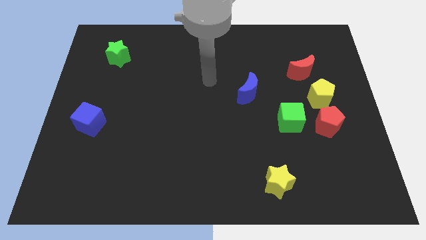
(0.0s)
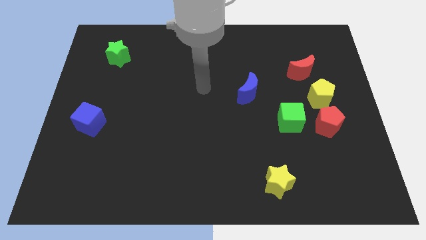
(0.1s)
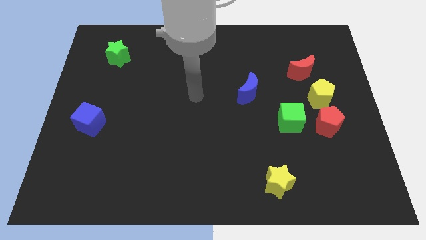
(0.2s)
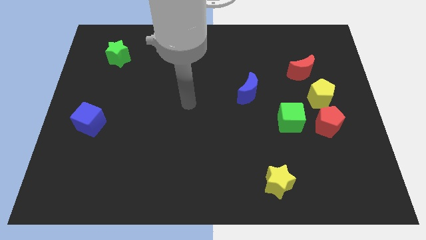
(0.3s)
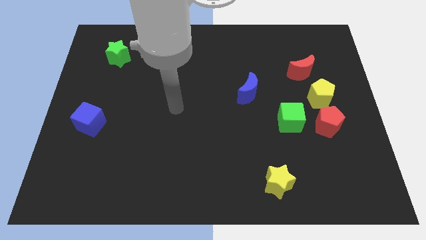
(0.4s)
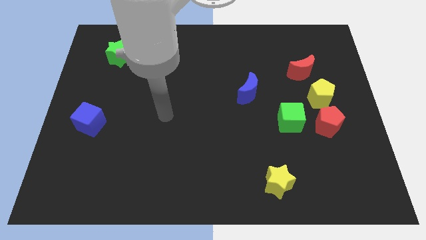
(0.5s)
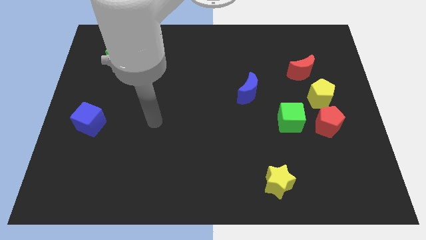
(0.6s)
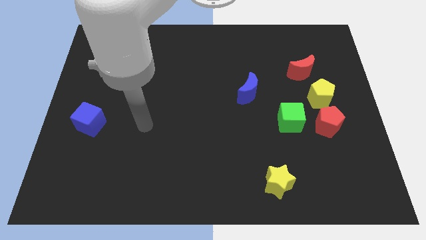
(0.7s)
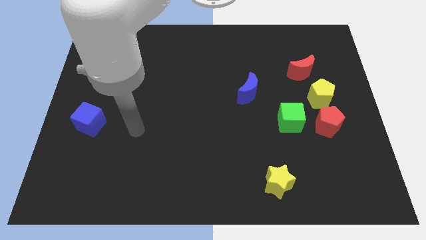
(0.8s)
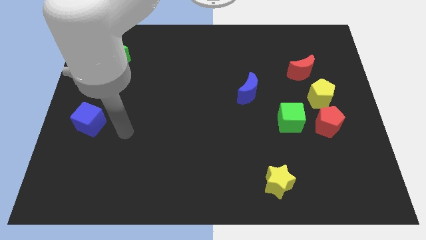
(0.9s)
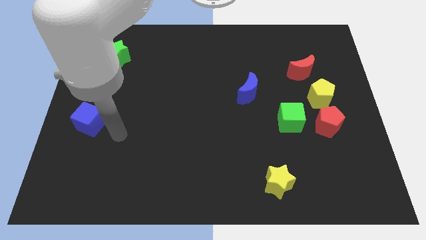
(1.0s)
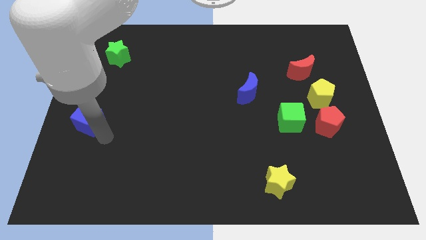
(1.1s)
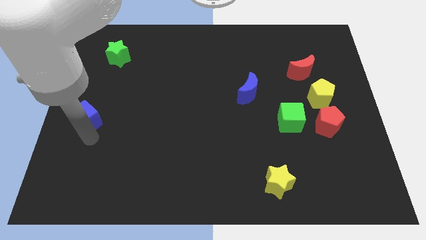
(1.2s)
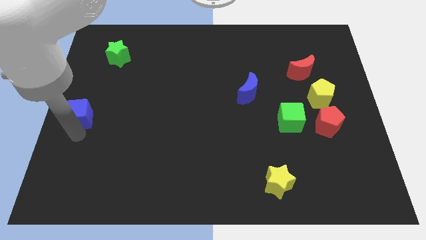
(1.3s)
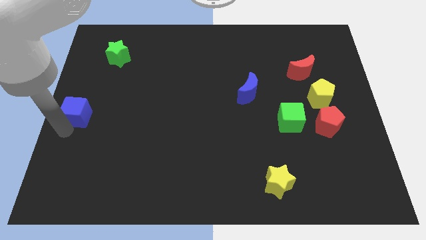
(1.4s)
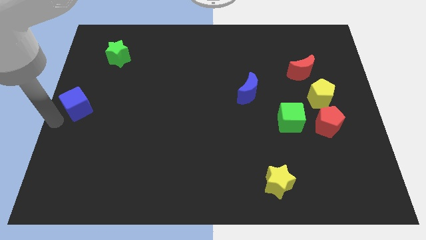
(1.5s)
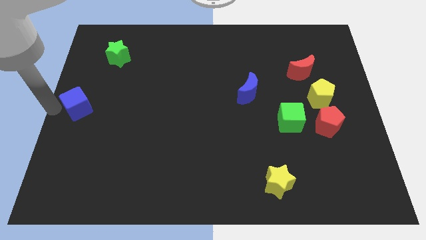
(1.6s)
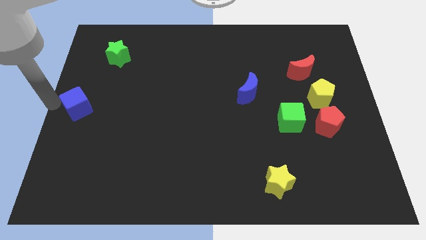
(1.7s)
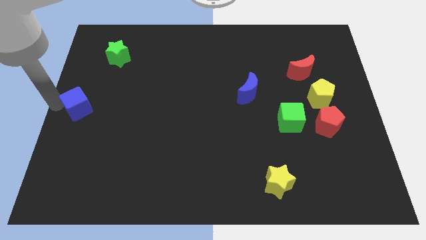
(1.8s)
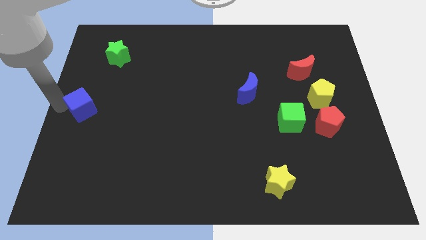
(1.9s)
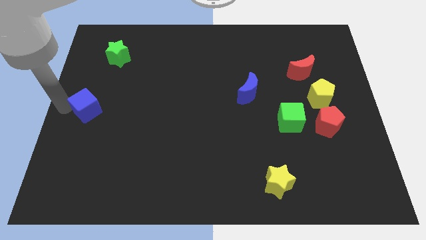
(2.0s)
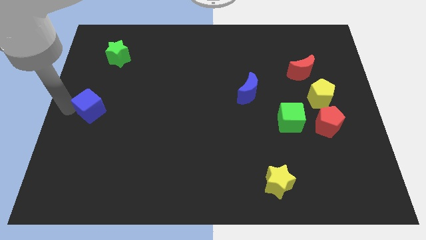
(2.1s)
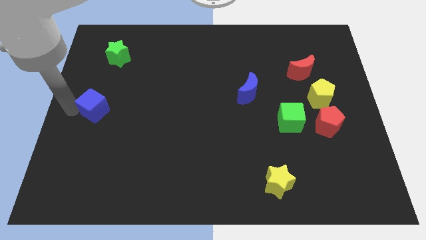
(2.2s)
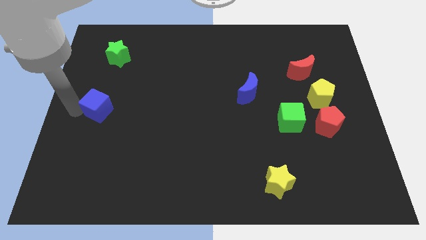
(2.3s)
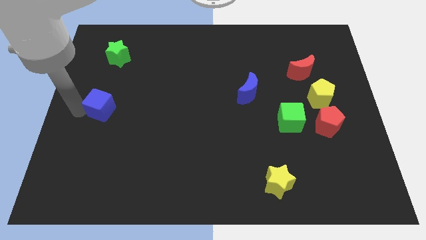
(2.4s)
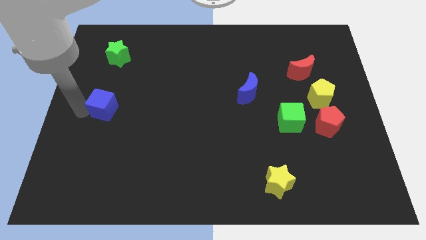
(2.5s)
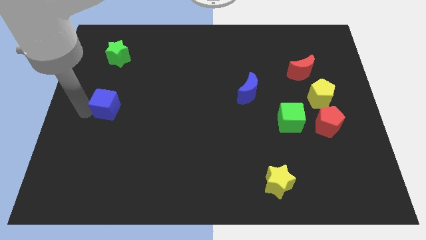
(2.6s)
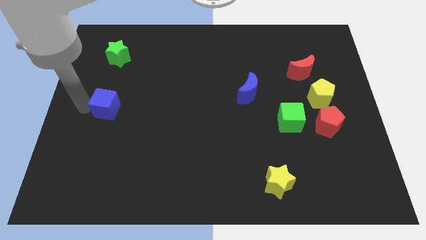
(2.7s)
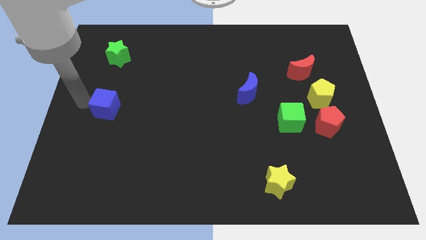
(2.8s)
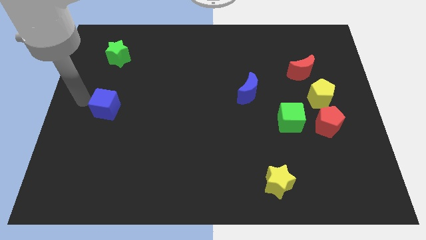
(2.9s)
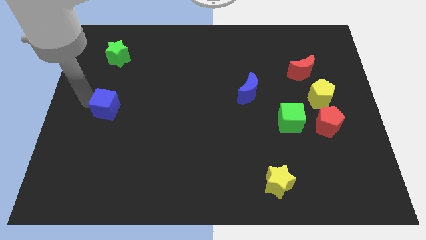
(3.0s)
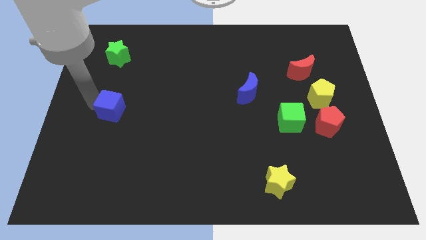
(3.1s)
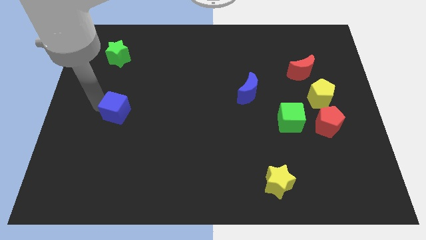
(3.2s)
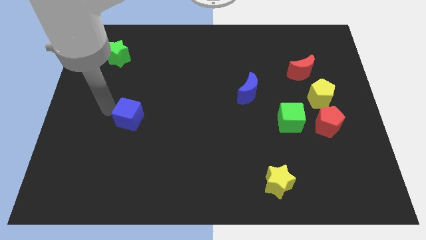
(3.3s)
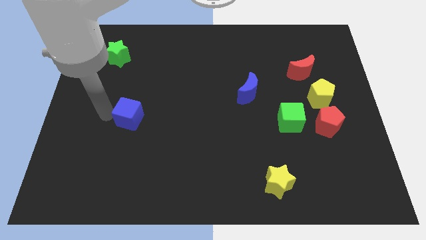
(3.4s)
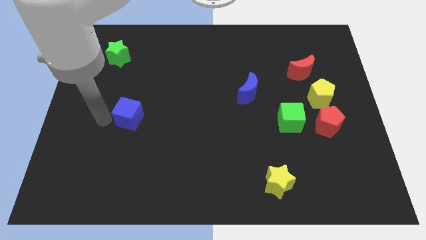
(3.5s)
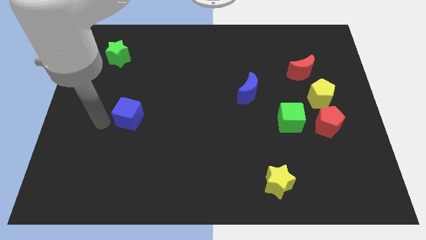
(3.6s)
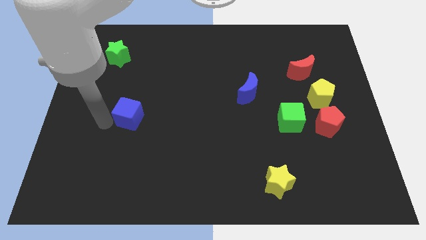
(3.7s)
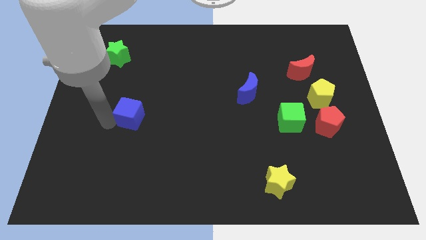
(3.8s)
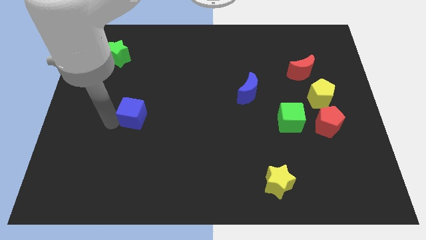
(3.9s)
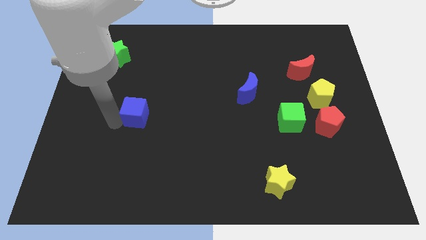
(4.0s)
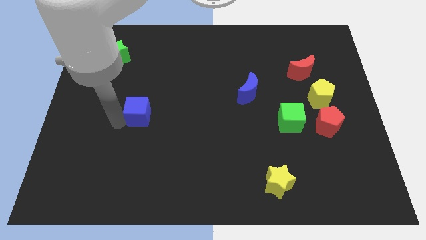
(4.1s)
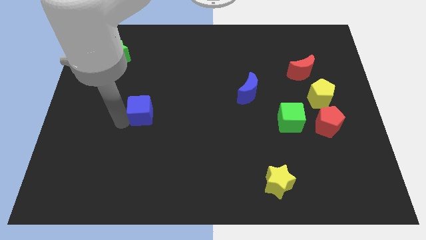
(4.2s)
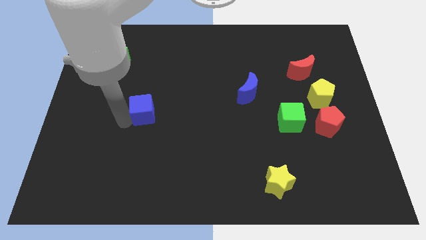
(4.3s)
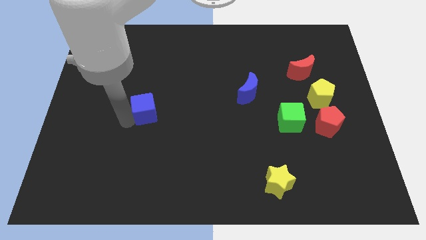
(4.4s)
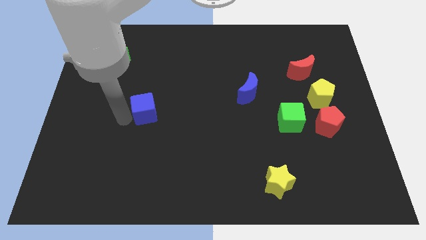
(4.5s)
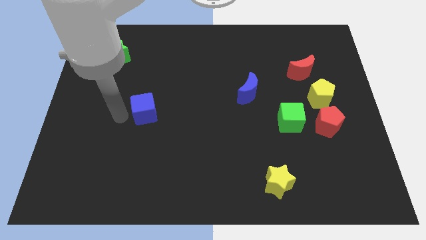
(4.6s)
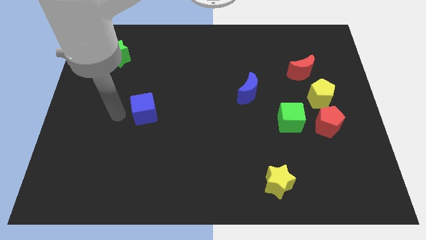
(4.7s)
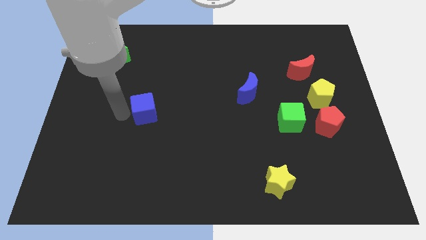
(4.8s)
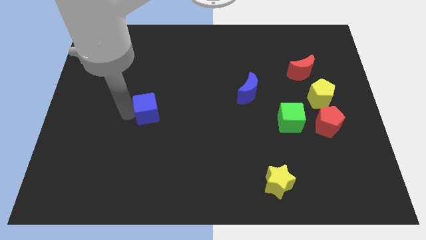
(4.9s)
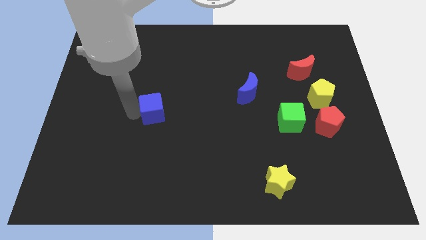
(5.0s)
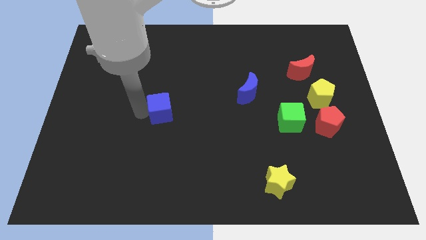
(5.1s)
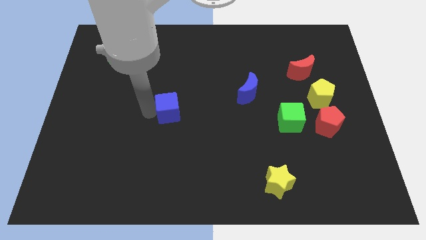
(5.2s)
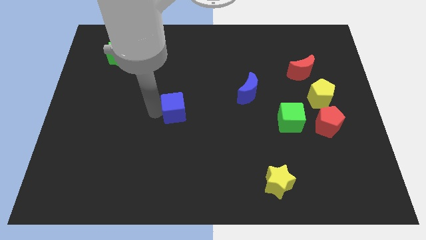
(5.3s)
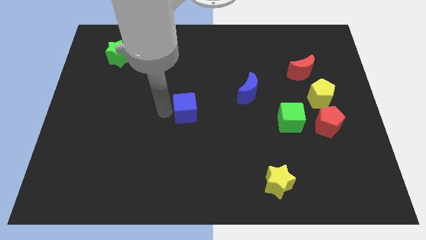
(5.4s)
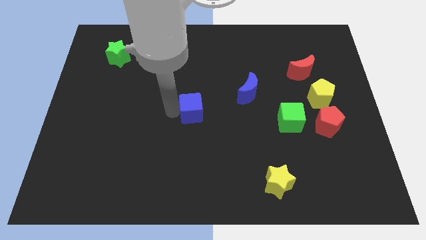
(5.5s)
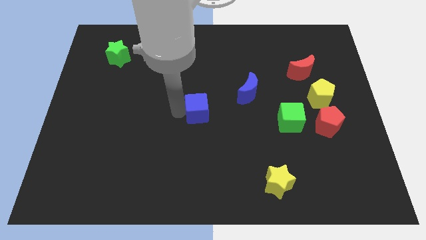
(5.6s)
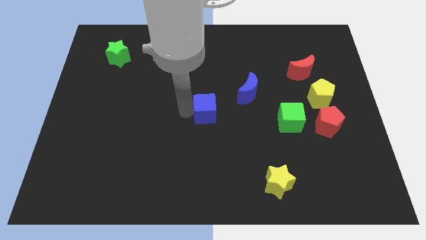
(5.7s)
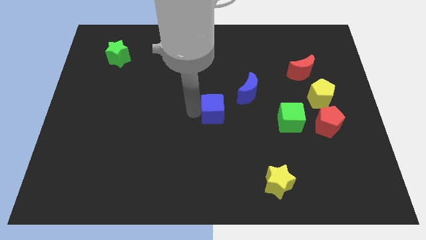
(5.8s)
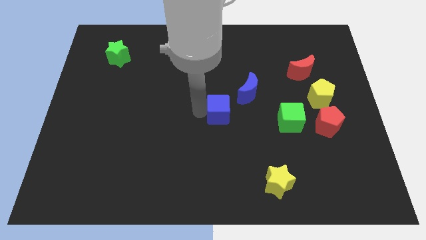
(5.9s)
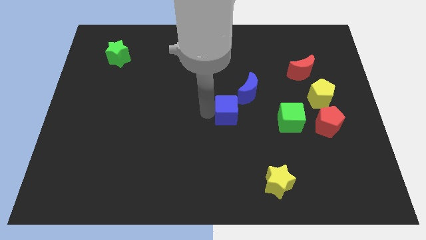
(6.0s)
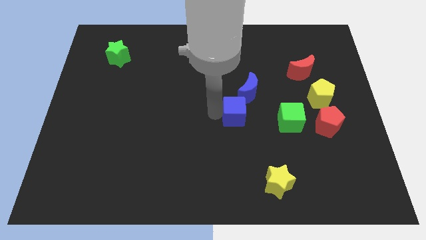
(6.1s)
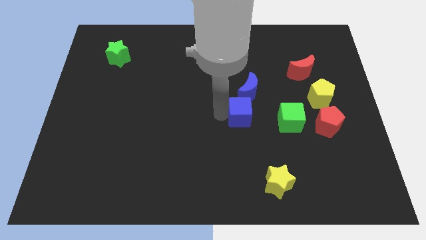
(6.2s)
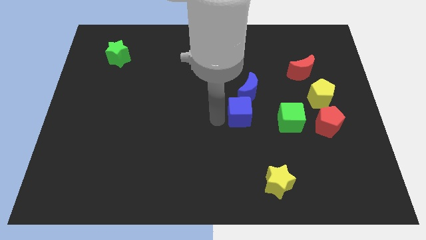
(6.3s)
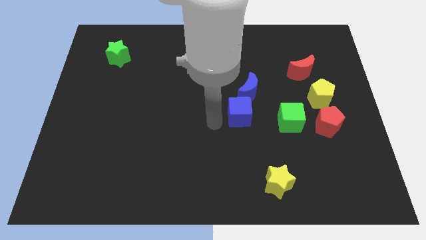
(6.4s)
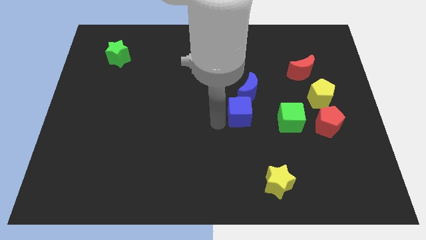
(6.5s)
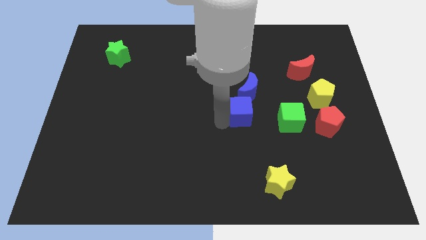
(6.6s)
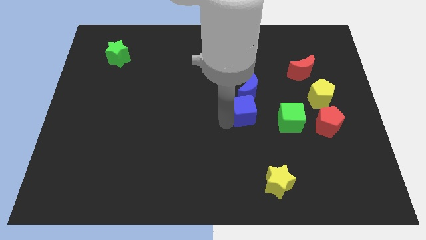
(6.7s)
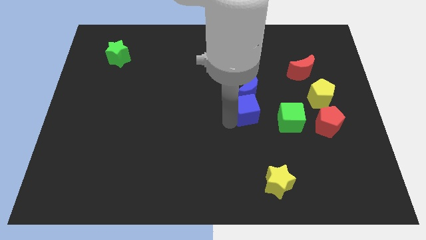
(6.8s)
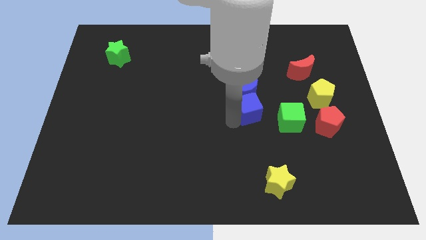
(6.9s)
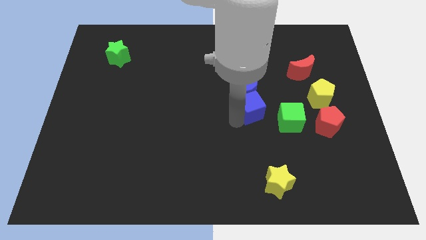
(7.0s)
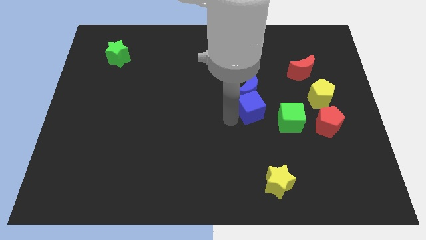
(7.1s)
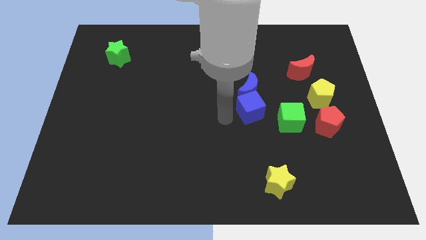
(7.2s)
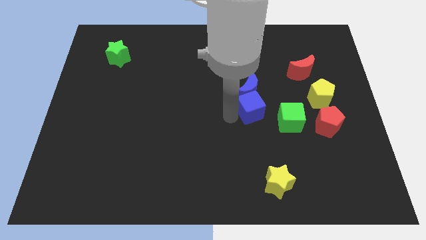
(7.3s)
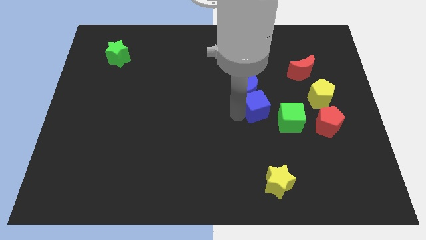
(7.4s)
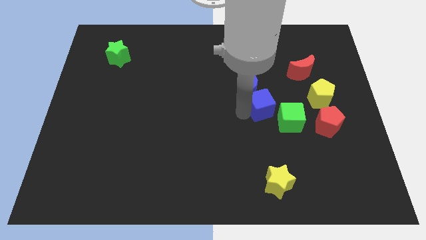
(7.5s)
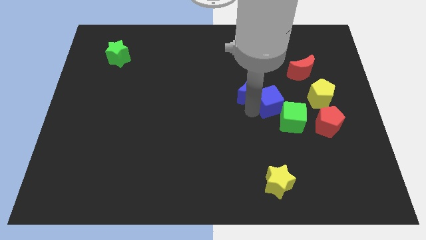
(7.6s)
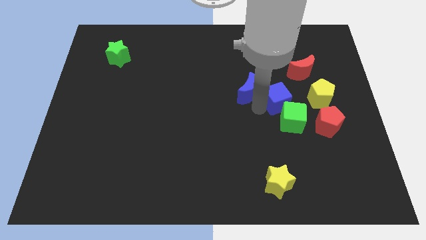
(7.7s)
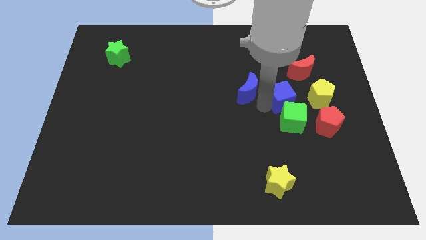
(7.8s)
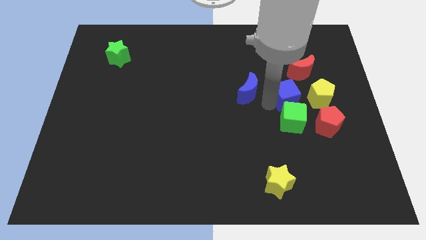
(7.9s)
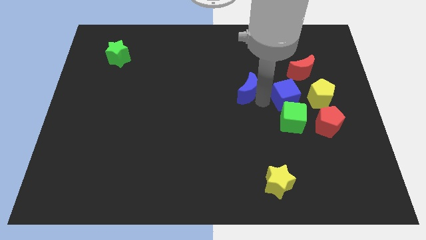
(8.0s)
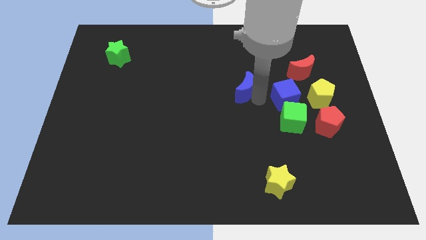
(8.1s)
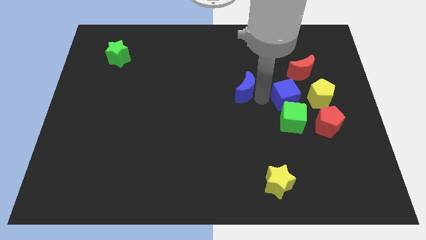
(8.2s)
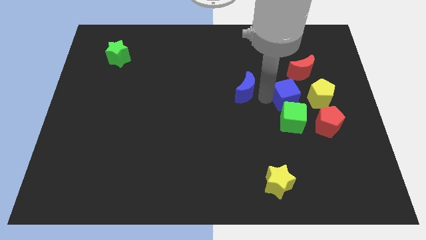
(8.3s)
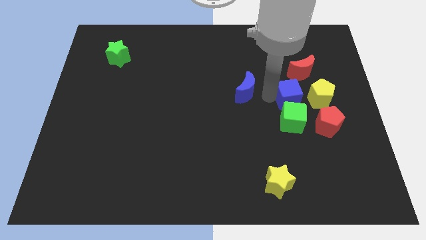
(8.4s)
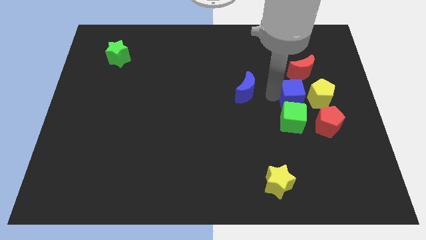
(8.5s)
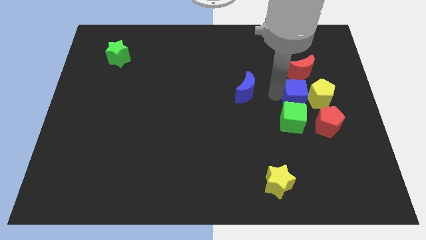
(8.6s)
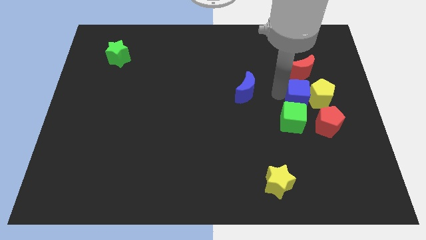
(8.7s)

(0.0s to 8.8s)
push the blue cube towards the yellow pentagon
